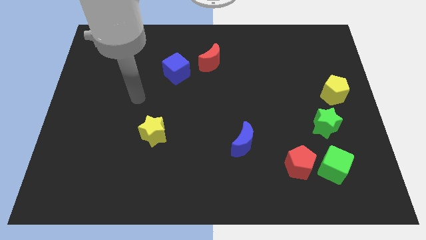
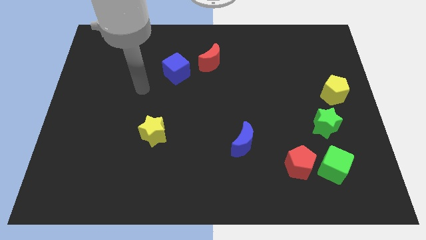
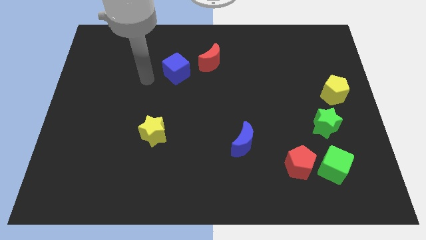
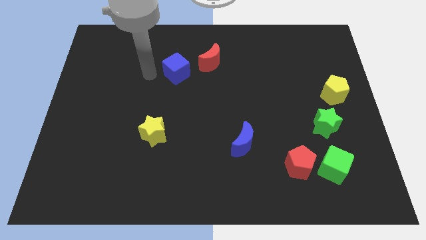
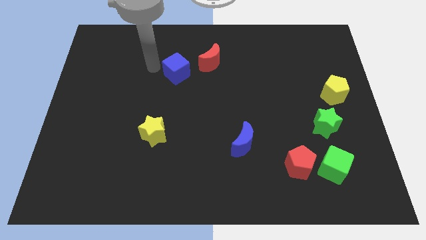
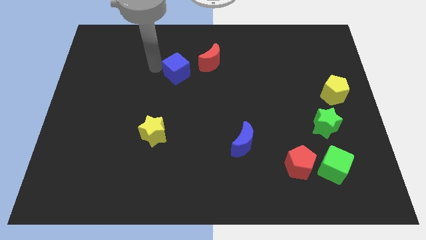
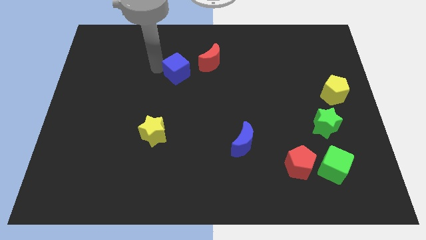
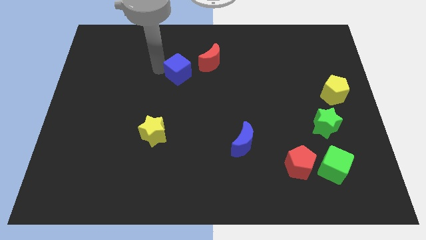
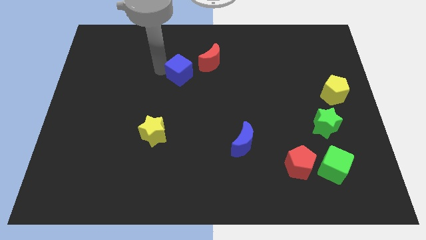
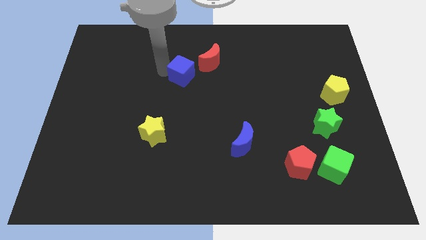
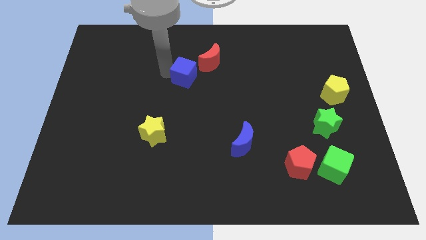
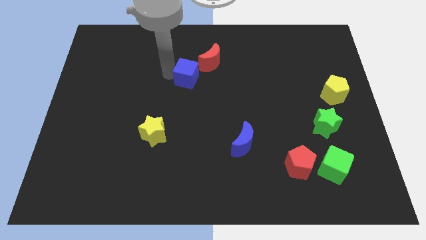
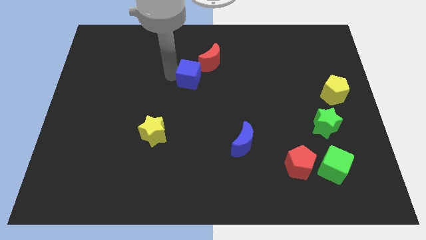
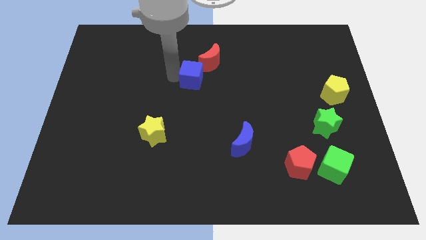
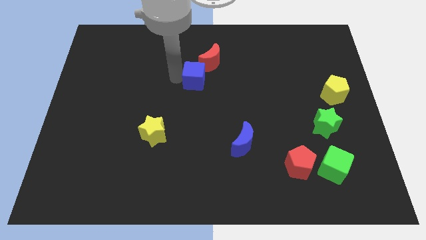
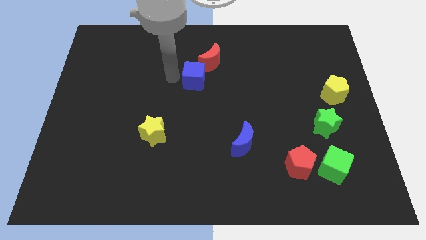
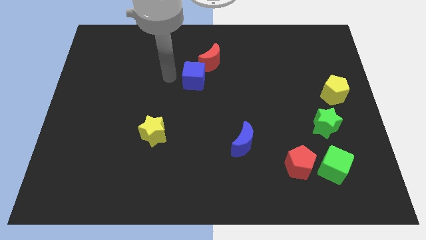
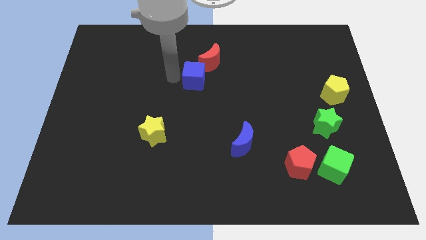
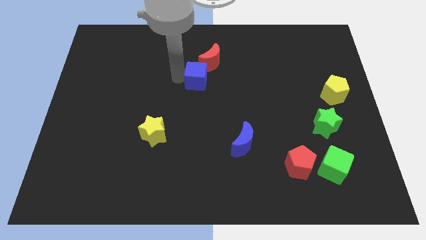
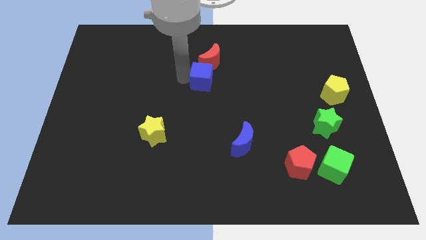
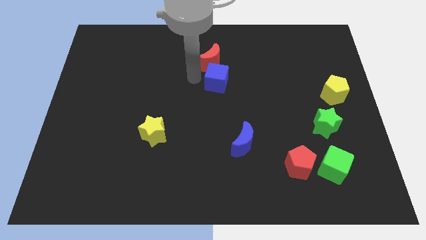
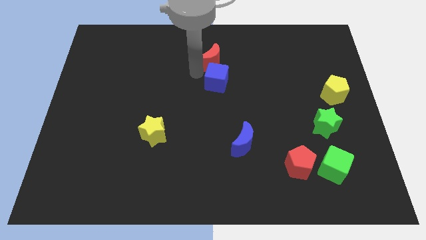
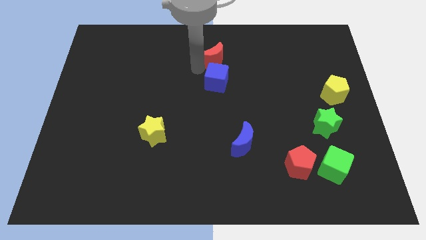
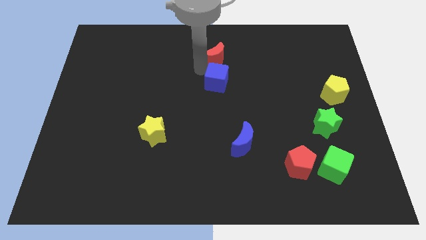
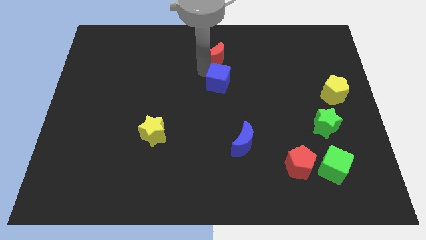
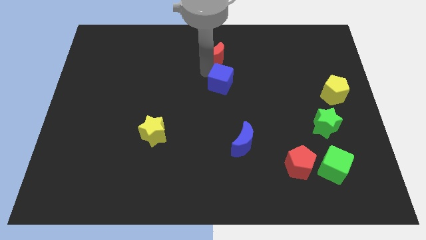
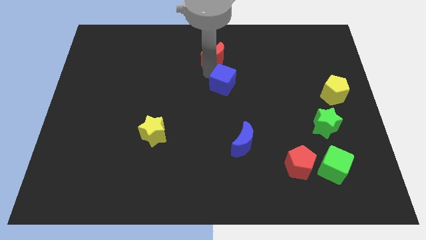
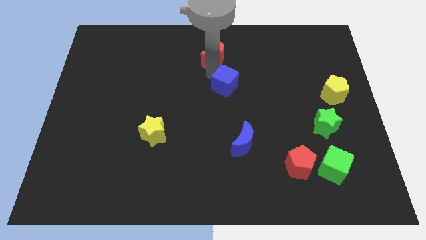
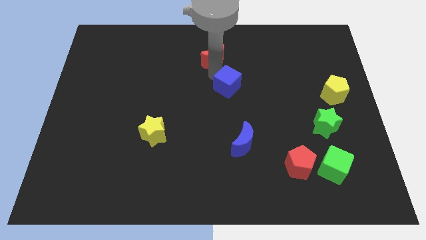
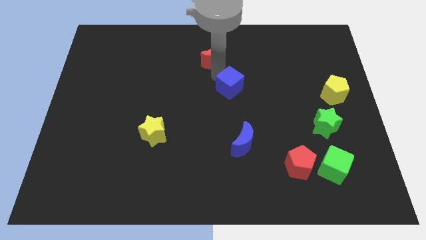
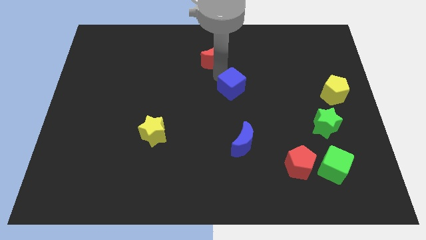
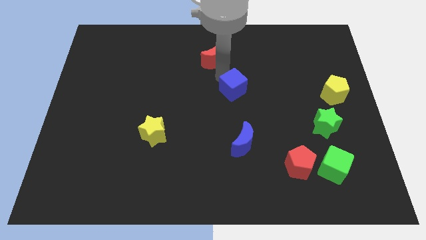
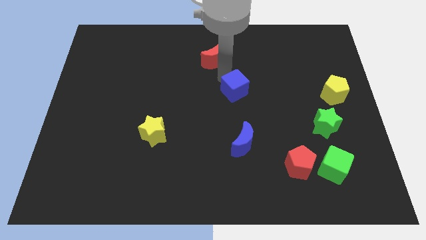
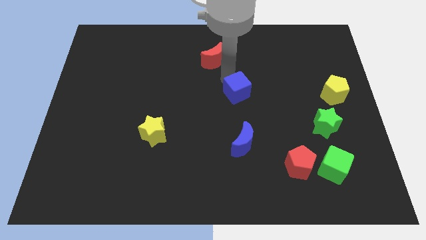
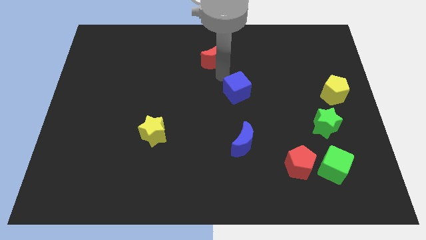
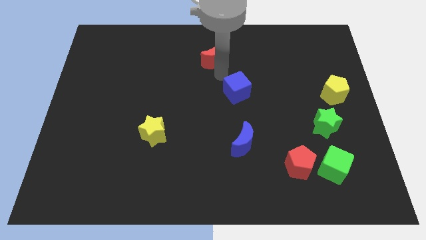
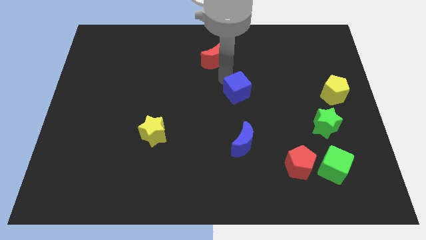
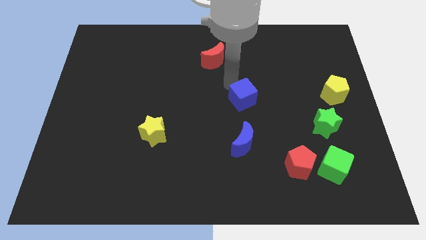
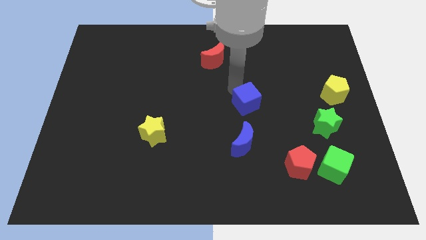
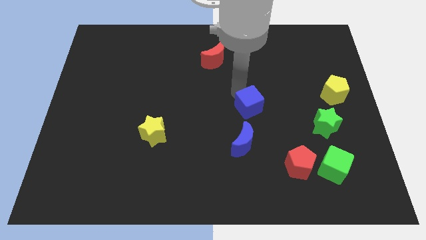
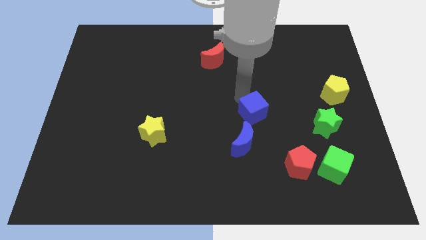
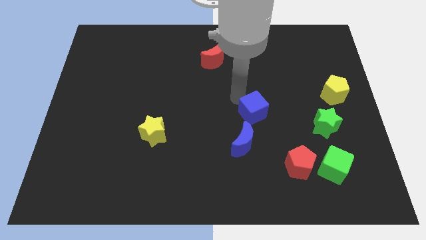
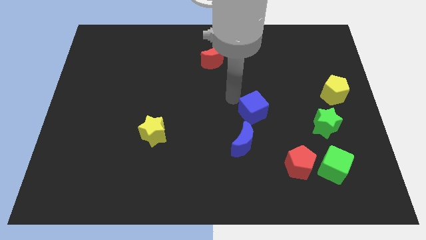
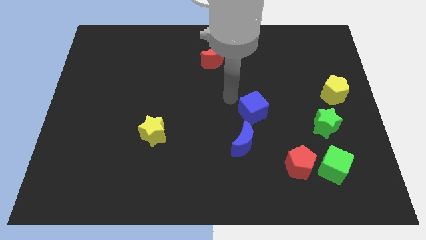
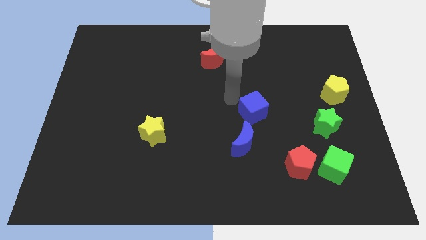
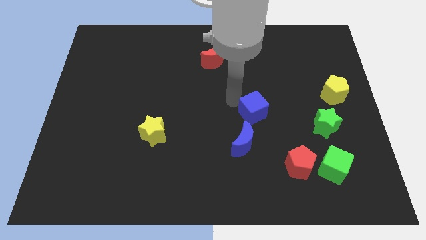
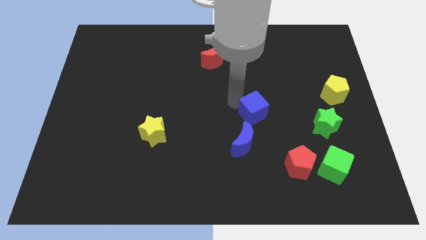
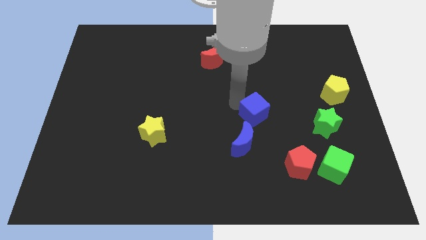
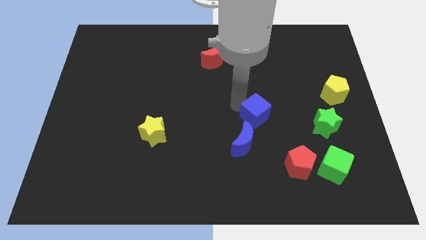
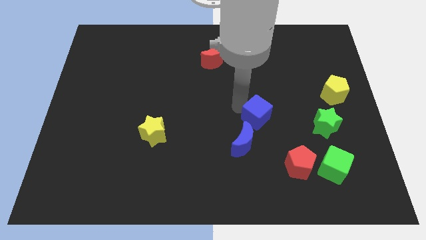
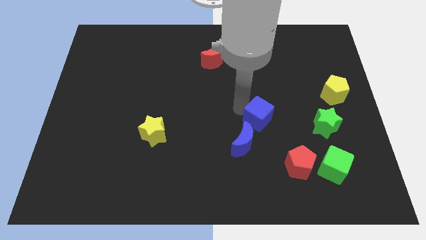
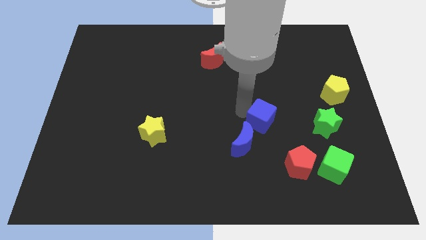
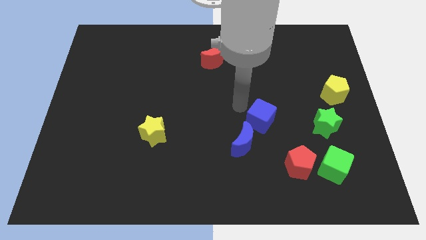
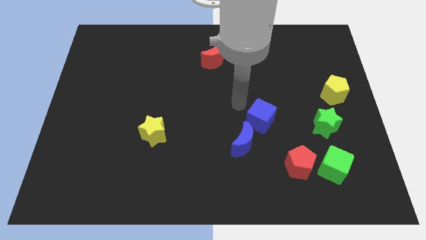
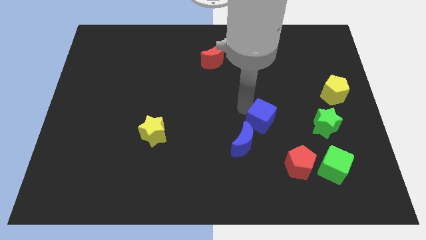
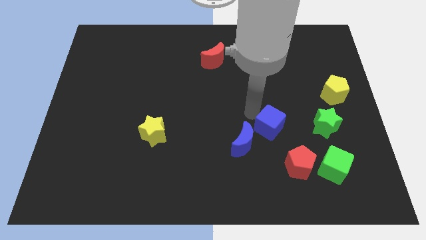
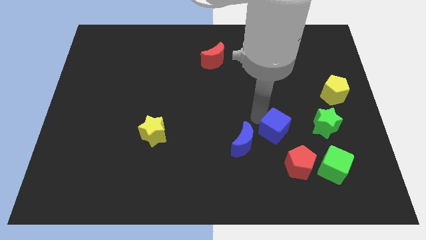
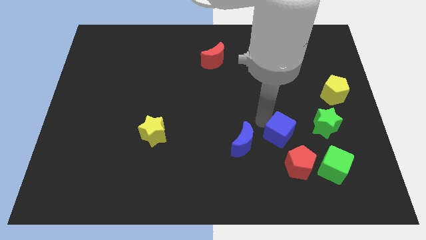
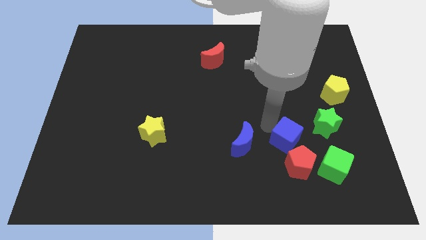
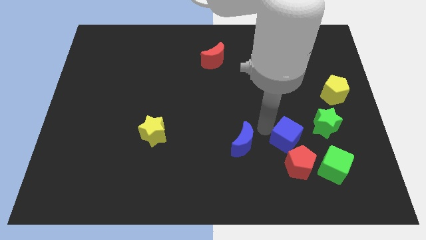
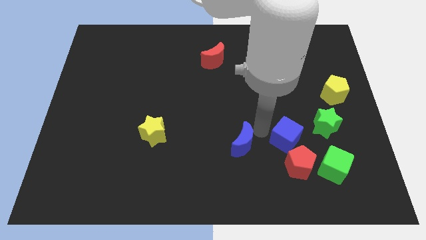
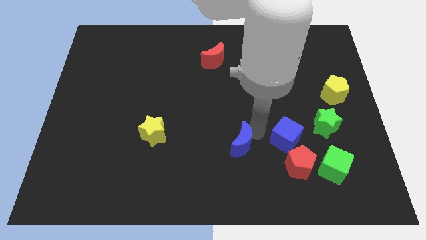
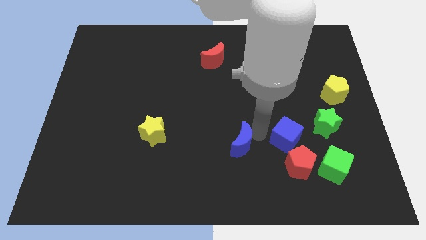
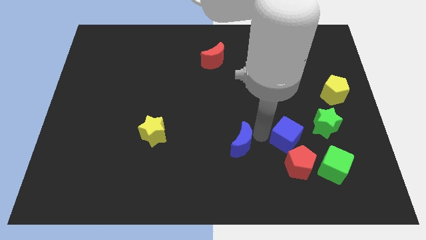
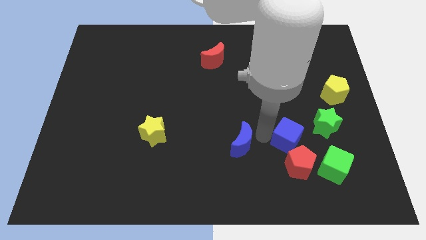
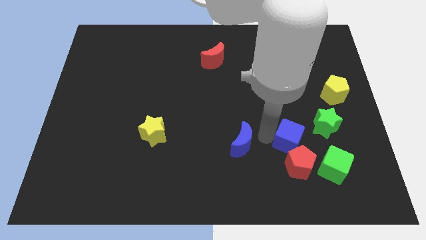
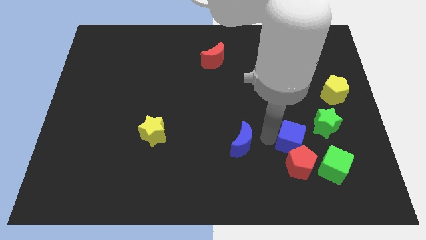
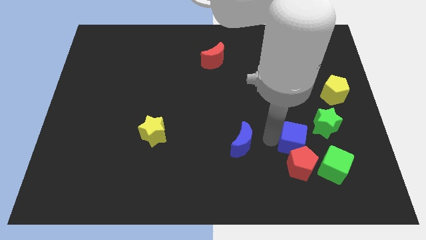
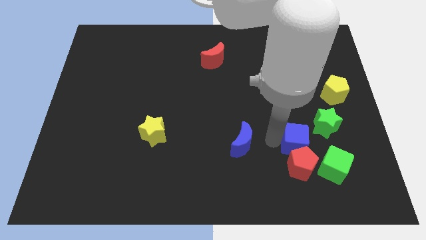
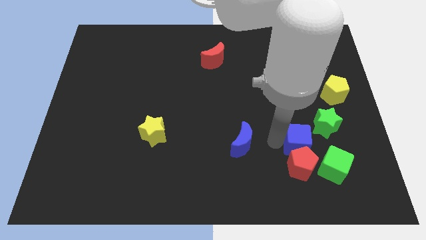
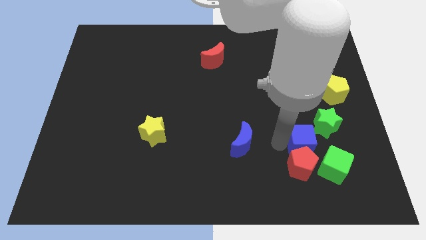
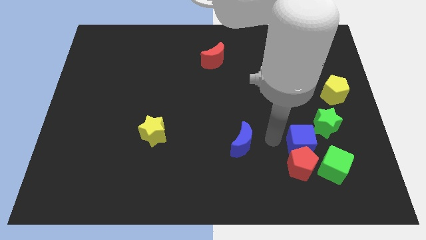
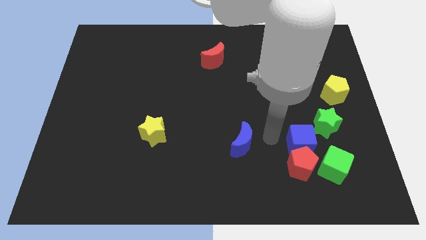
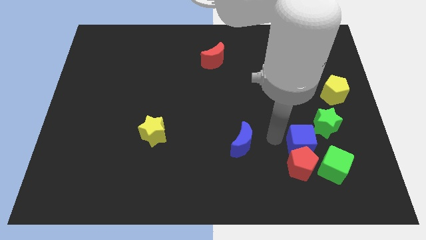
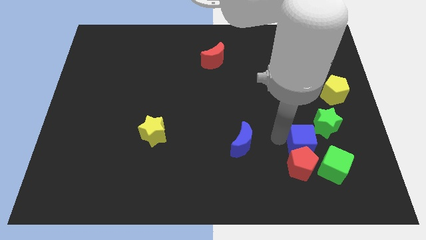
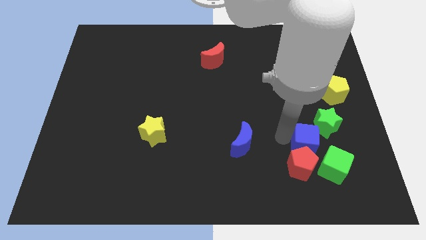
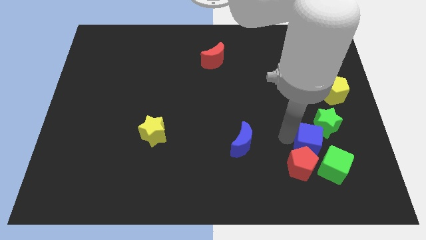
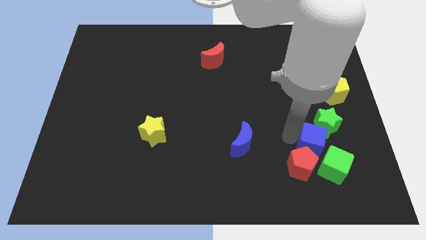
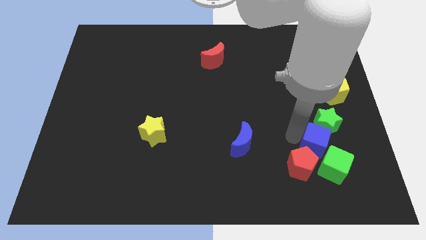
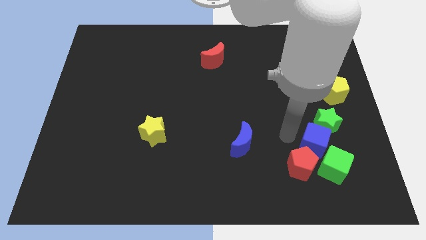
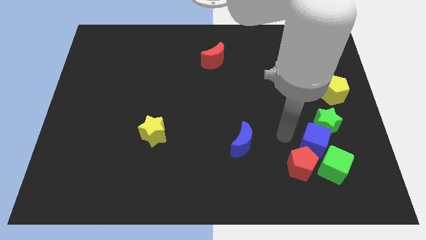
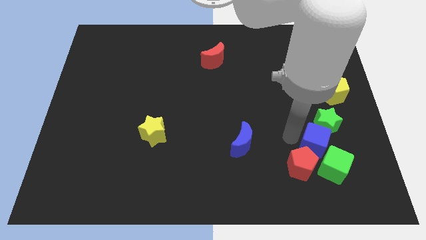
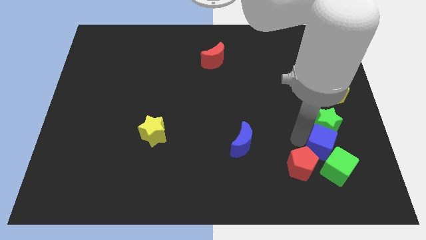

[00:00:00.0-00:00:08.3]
move the blue cube right of the red pentagon
